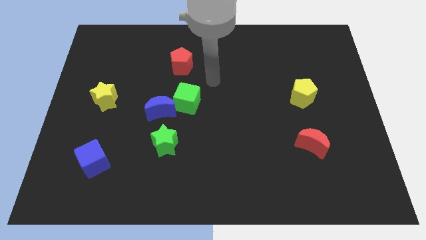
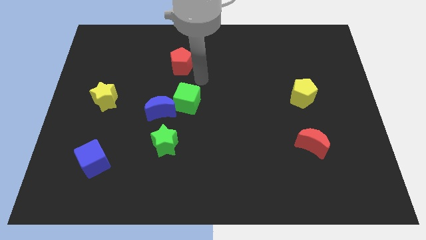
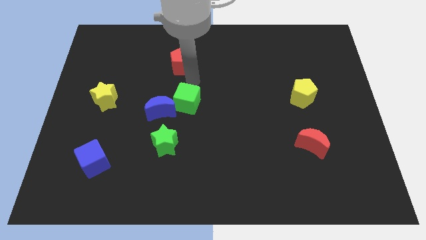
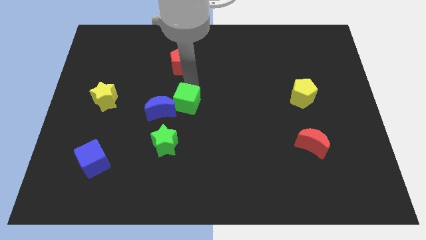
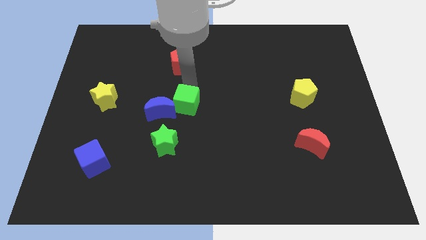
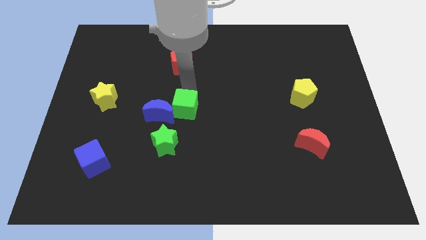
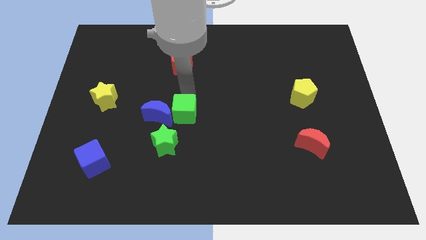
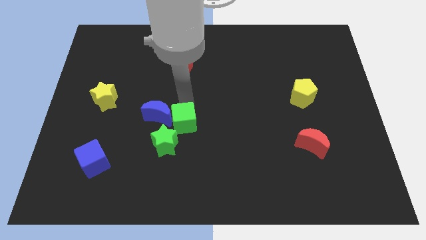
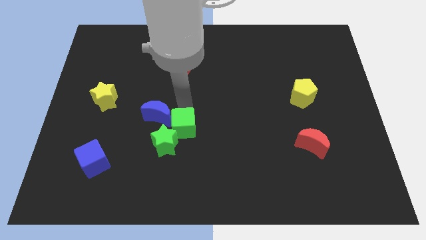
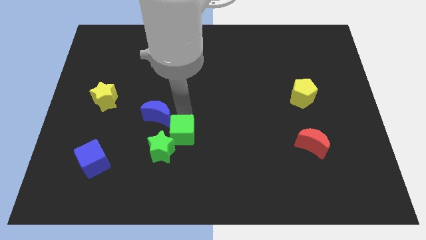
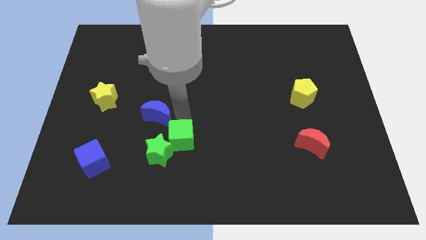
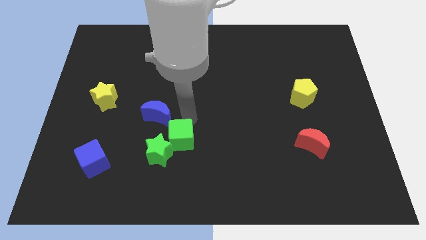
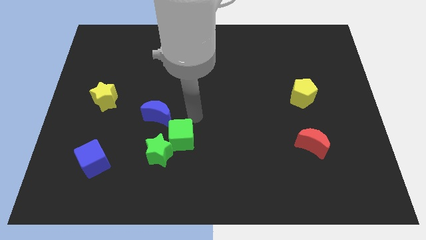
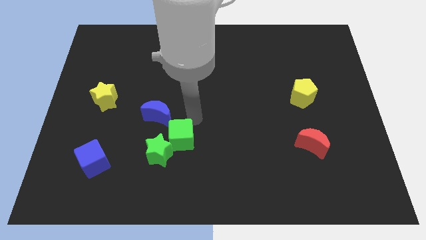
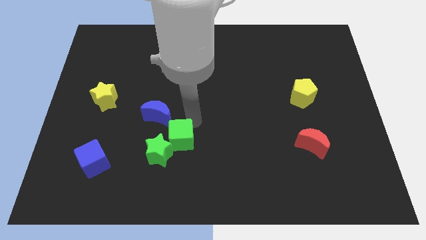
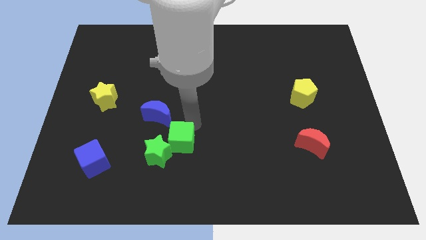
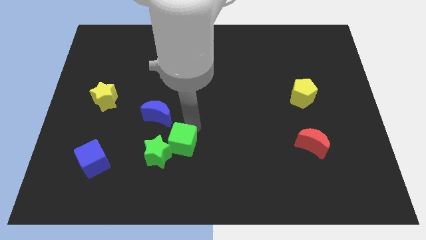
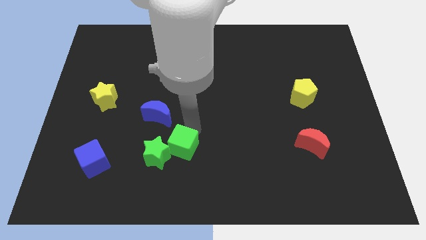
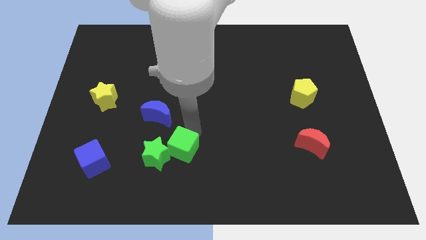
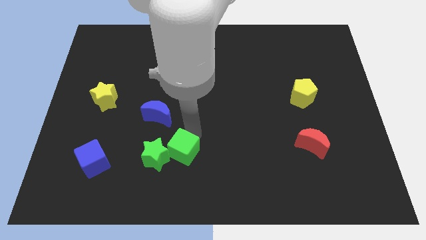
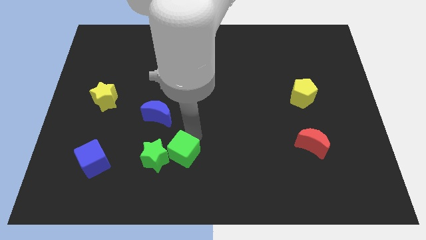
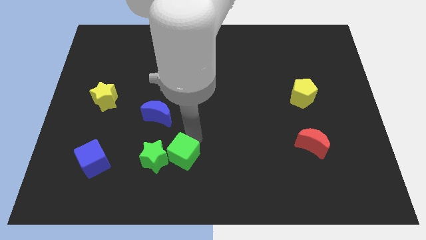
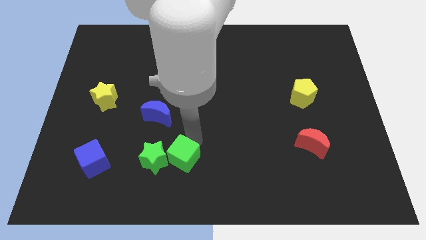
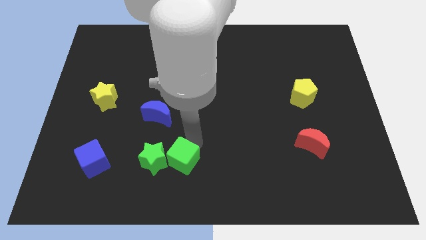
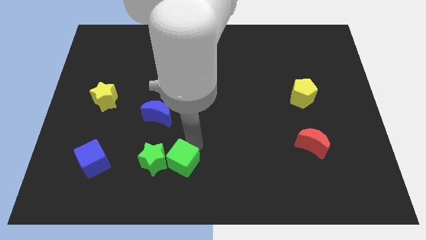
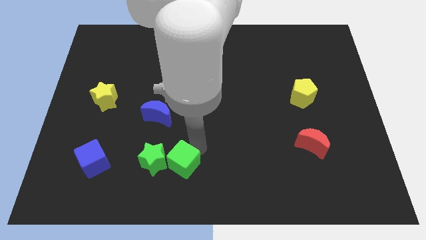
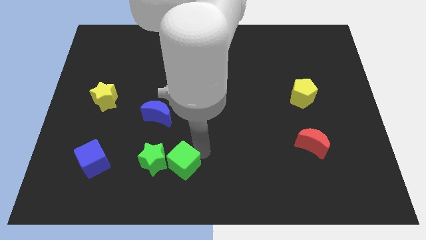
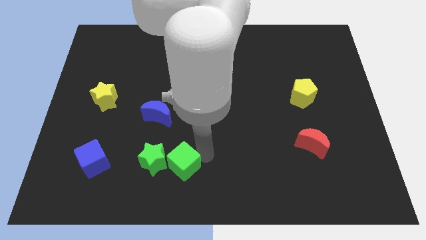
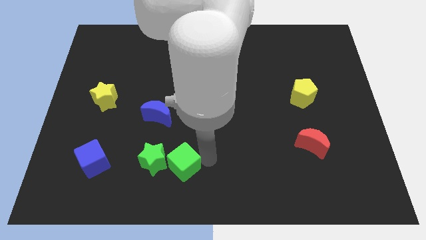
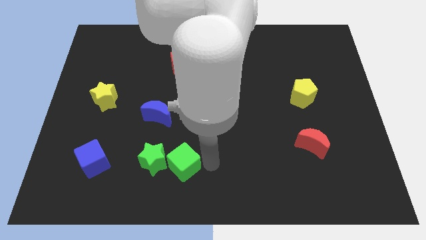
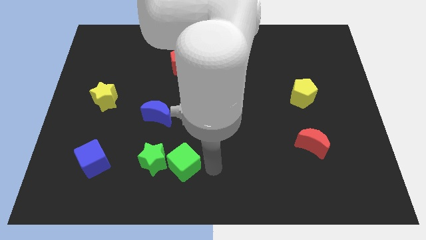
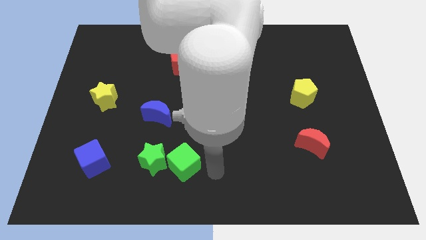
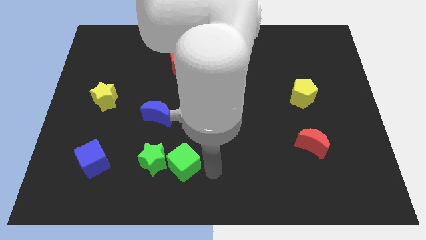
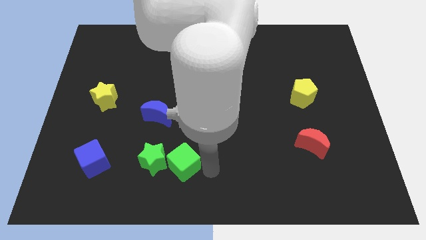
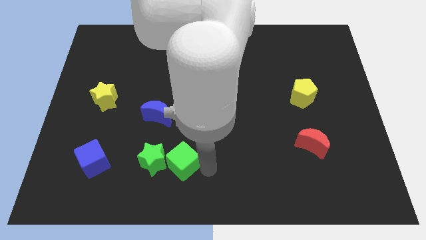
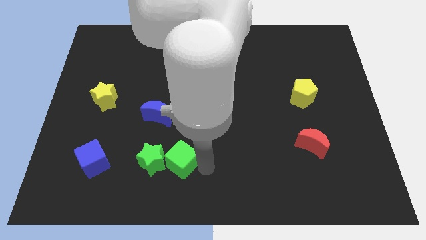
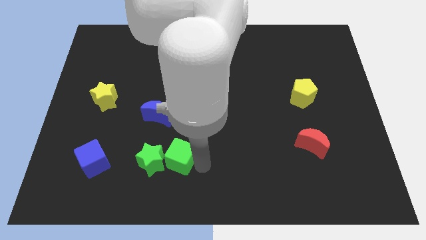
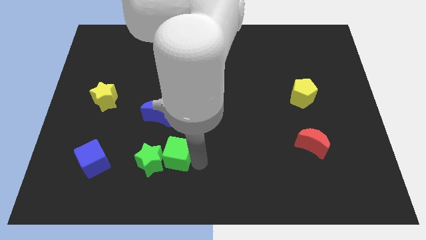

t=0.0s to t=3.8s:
push the green cube somewhat downwards and to the left diagonally

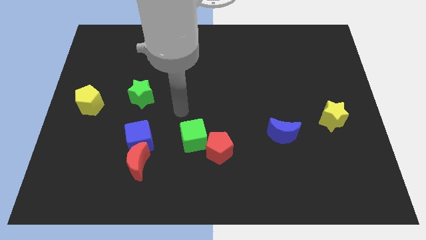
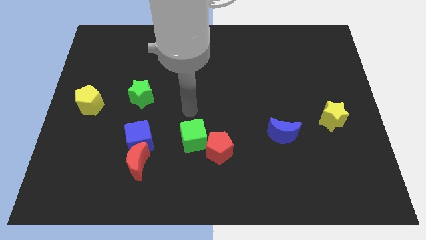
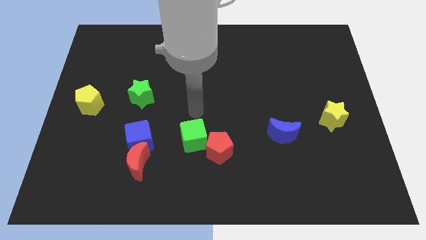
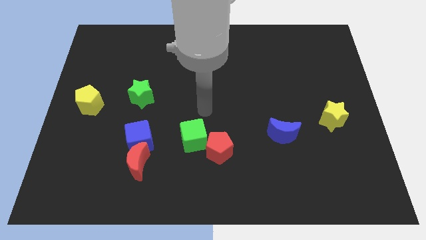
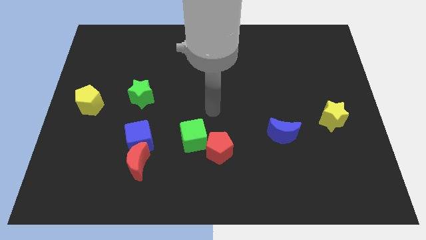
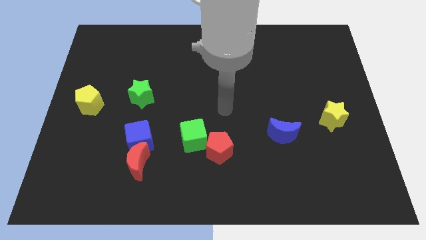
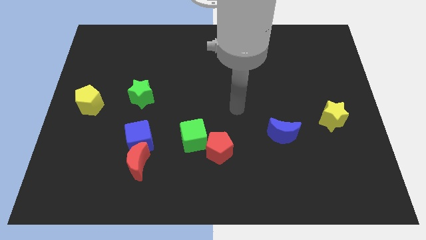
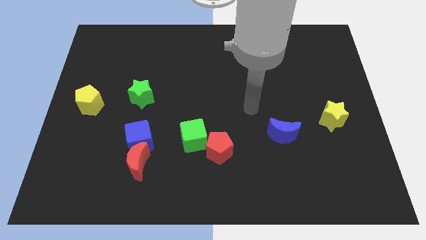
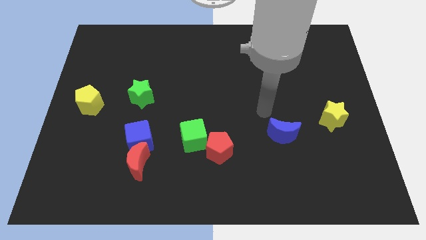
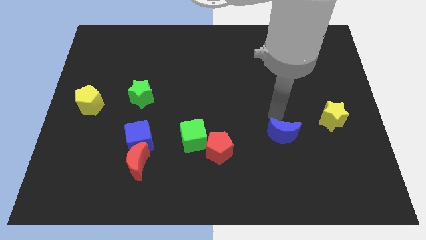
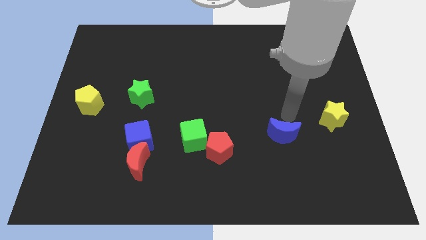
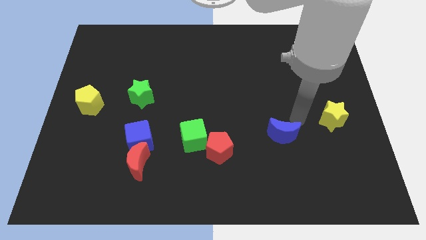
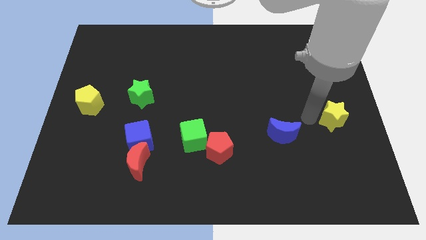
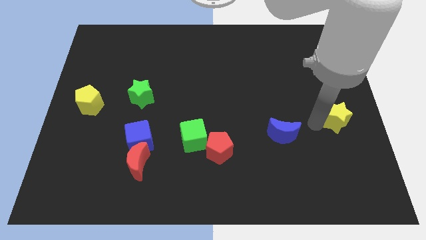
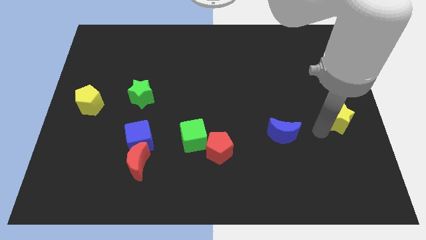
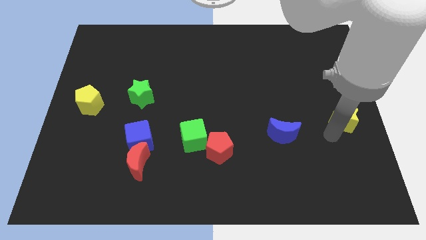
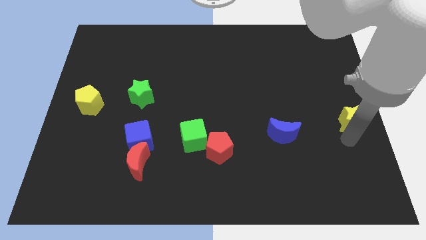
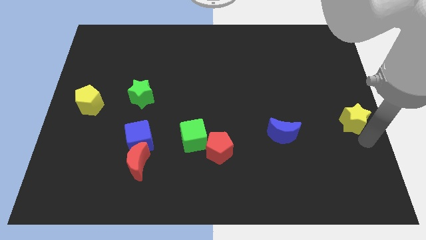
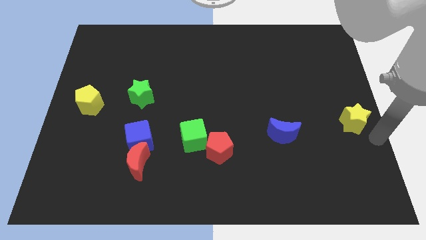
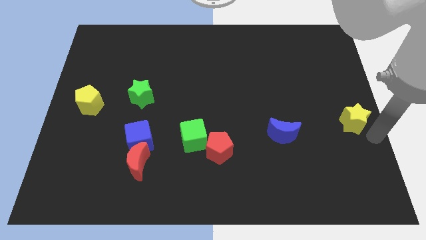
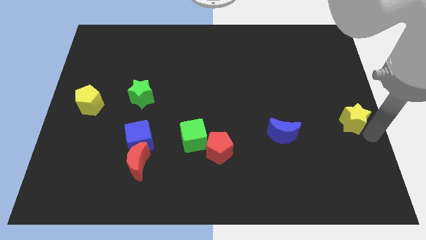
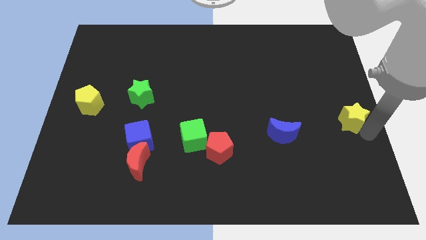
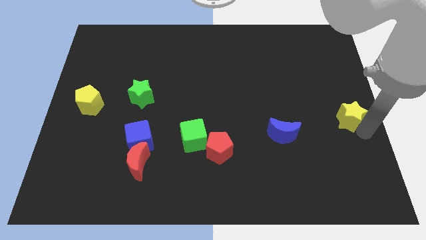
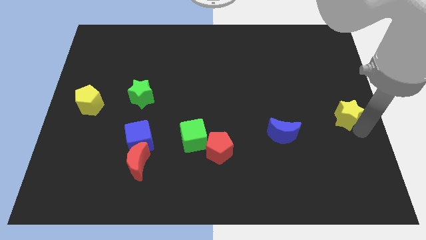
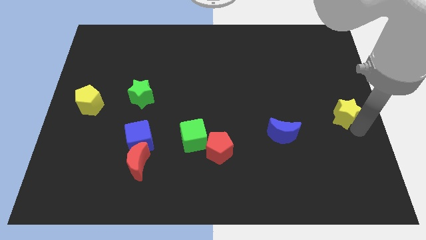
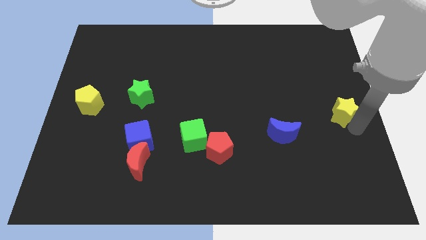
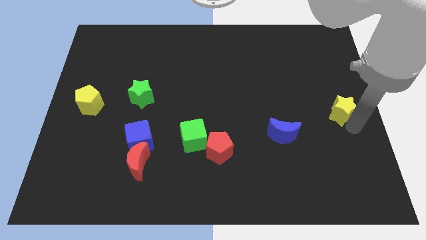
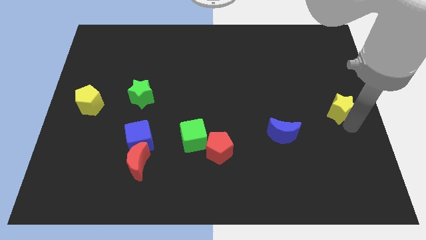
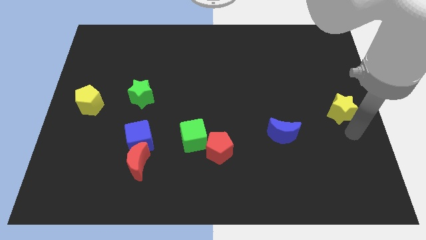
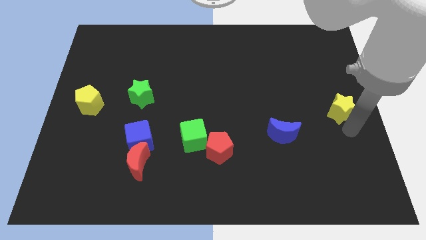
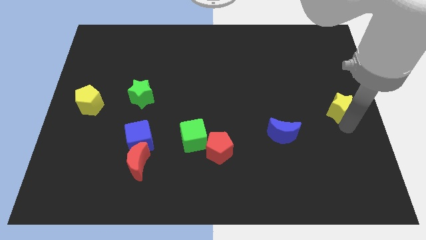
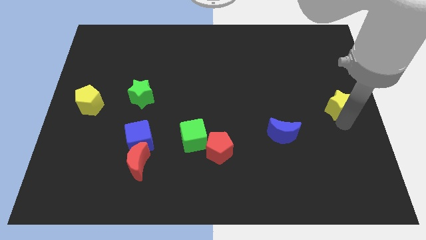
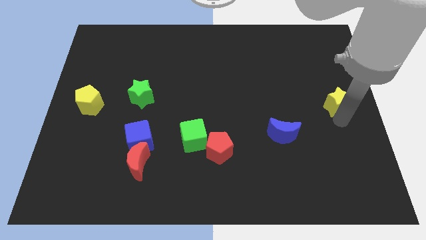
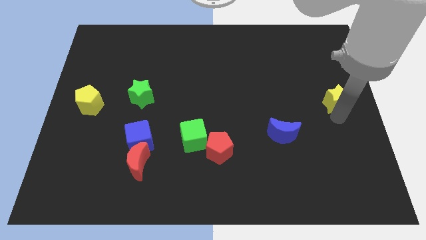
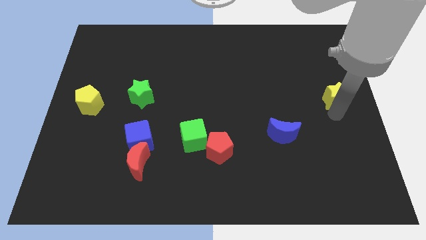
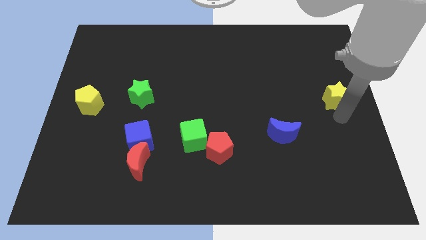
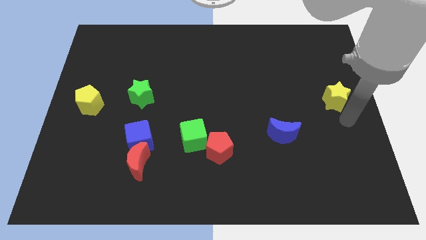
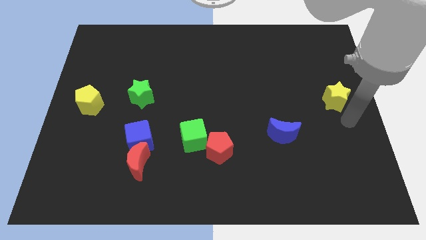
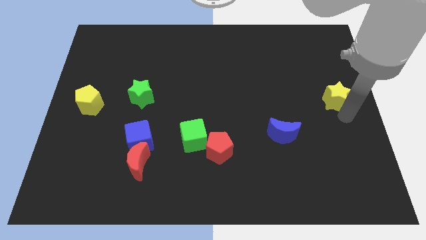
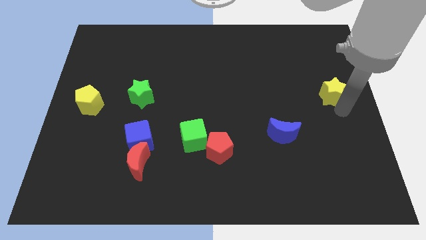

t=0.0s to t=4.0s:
push the yellow star a little upwards

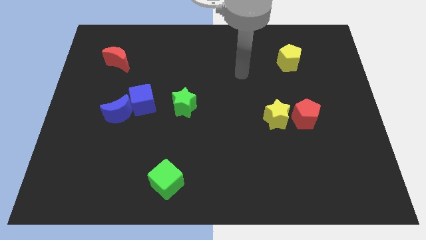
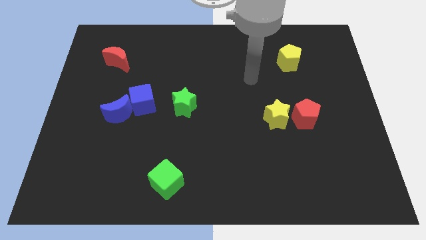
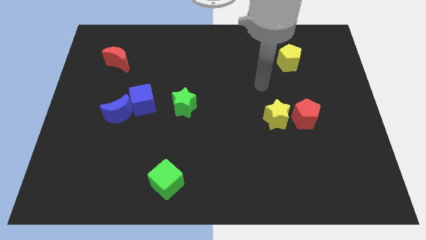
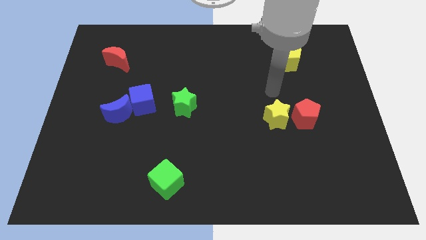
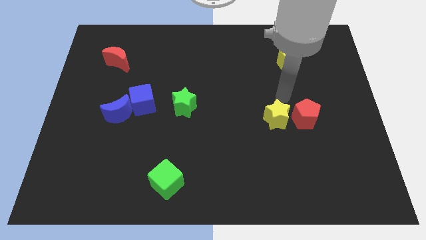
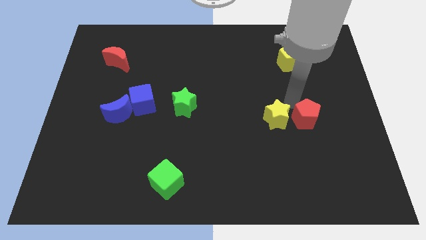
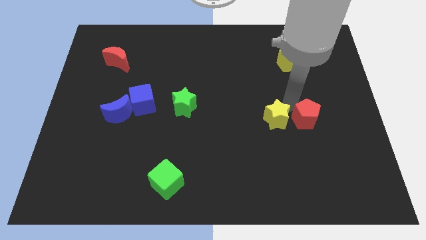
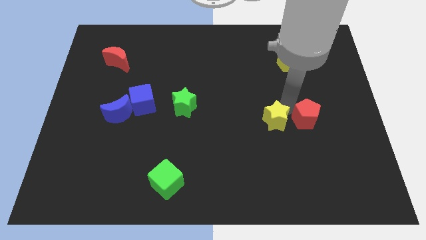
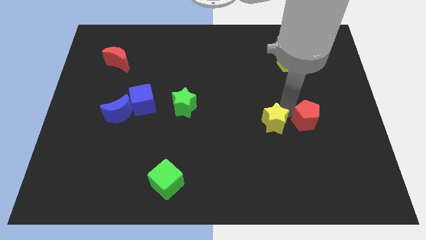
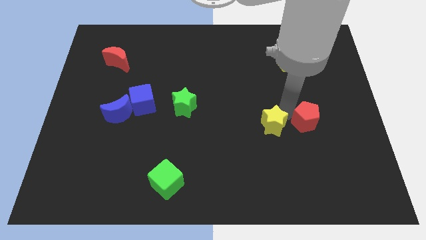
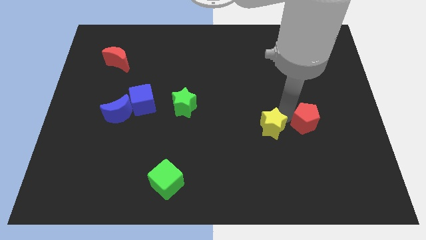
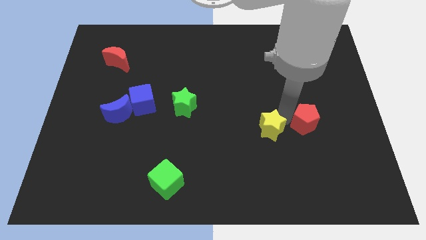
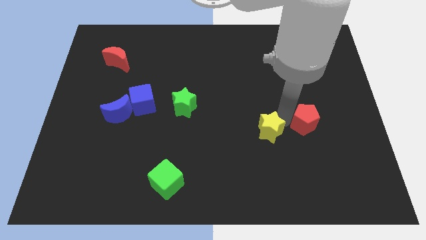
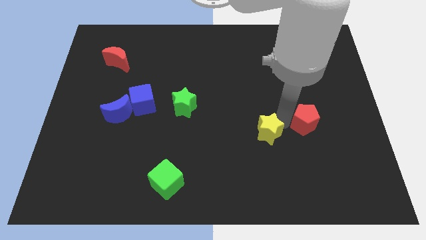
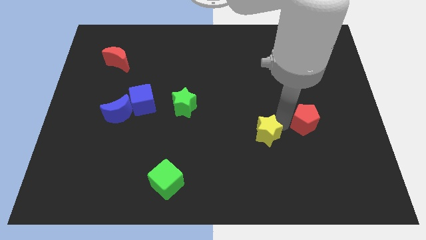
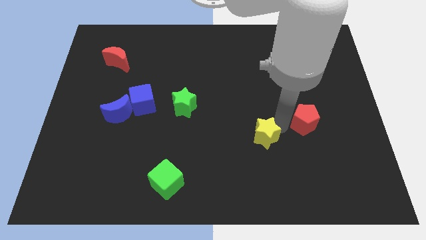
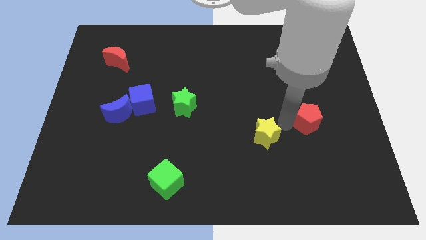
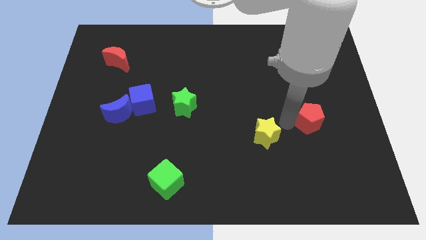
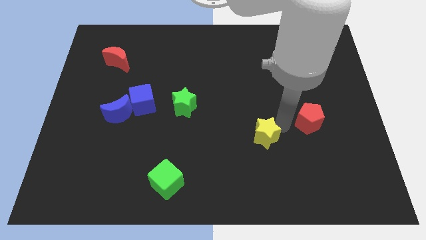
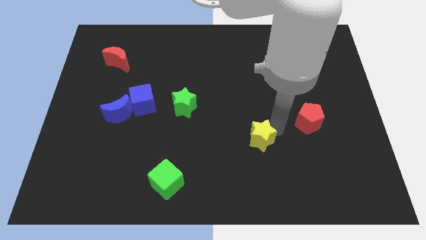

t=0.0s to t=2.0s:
slide the yellow star a little bit down and then left
